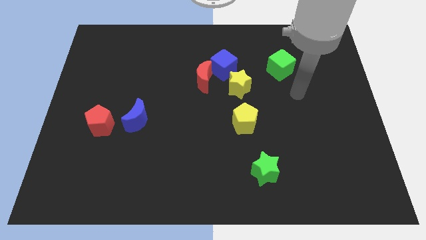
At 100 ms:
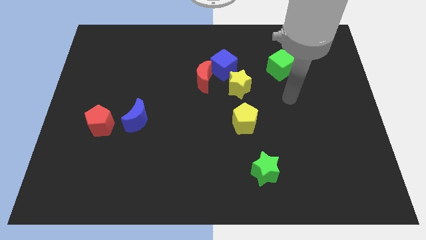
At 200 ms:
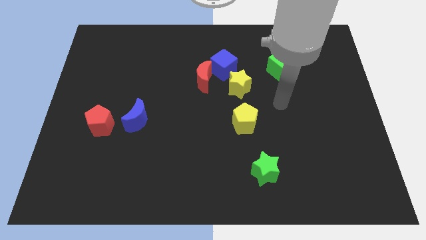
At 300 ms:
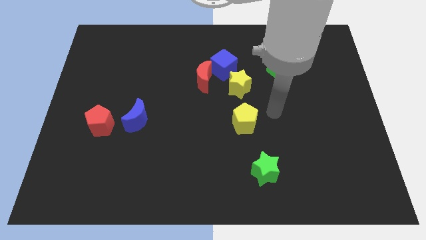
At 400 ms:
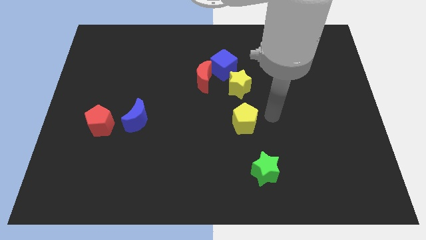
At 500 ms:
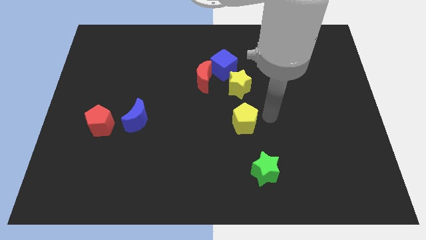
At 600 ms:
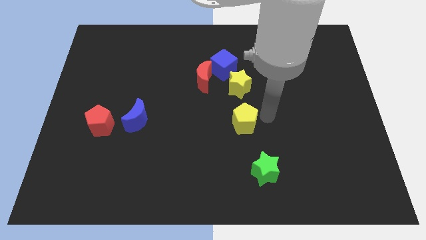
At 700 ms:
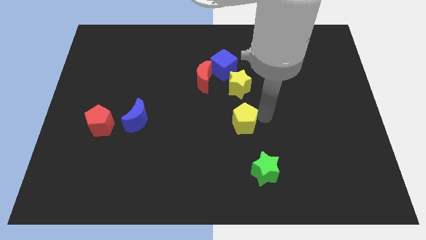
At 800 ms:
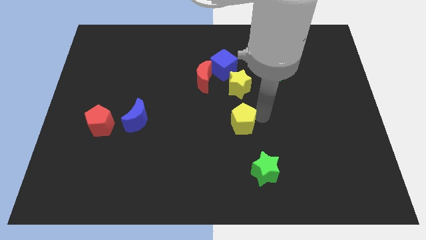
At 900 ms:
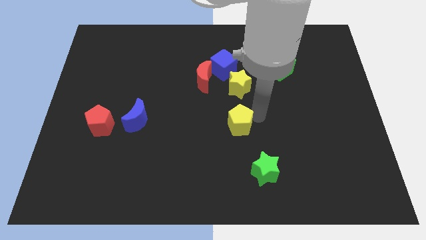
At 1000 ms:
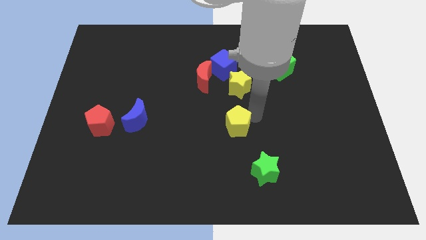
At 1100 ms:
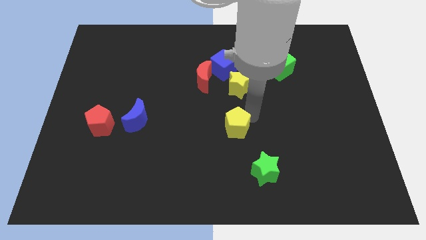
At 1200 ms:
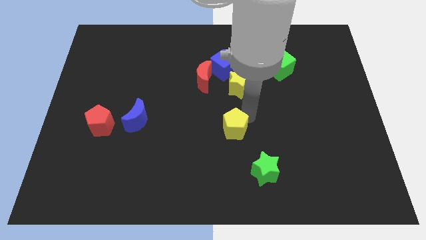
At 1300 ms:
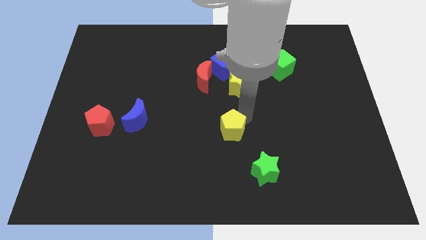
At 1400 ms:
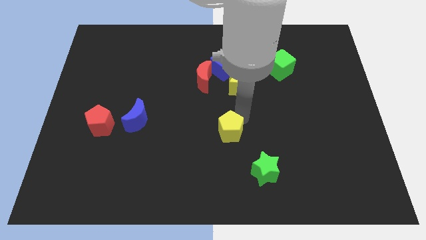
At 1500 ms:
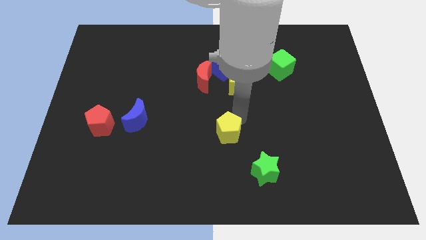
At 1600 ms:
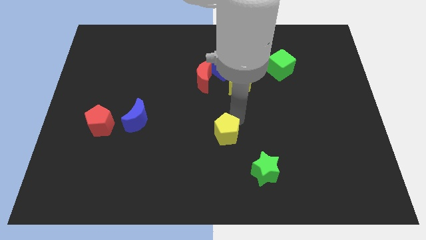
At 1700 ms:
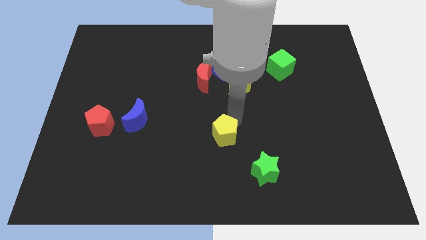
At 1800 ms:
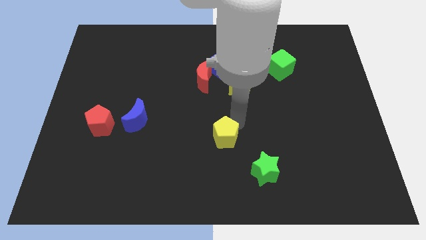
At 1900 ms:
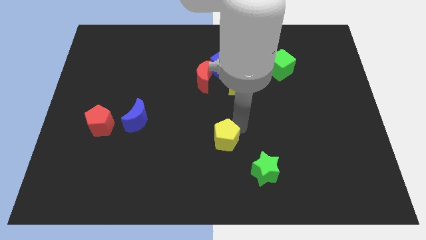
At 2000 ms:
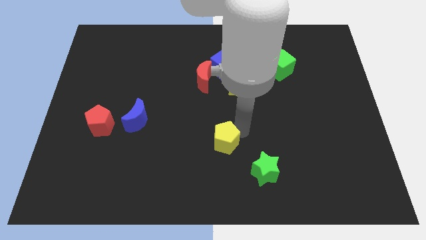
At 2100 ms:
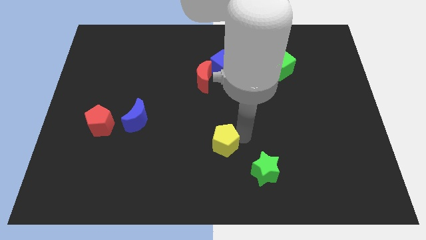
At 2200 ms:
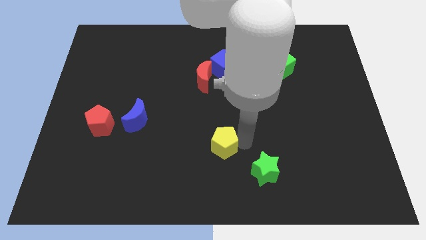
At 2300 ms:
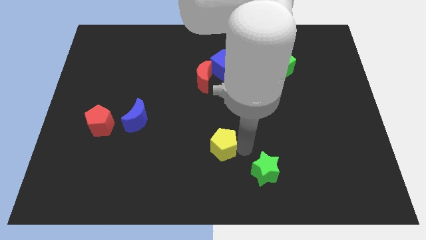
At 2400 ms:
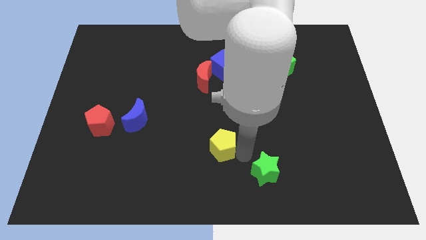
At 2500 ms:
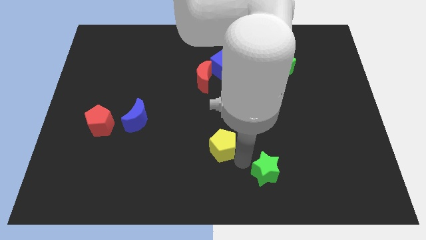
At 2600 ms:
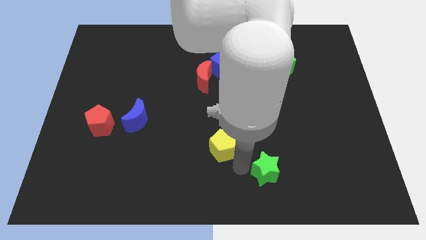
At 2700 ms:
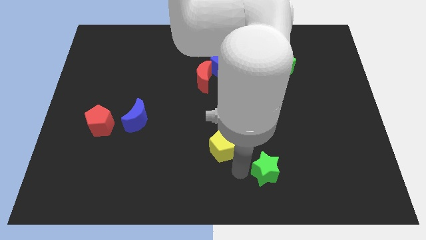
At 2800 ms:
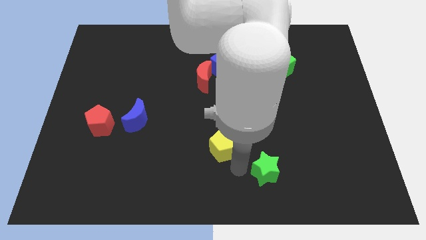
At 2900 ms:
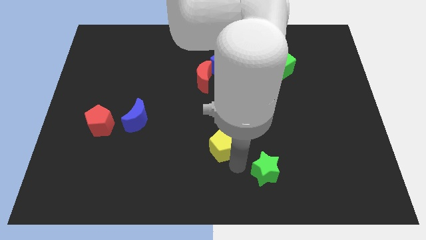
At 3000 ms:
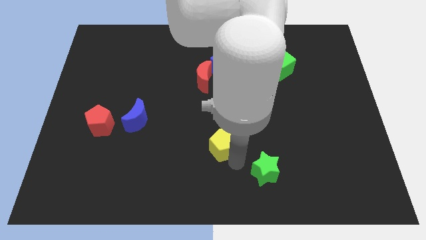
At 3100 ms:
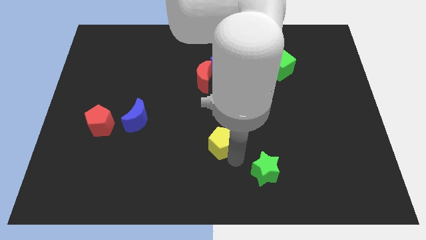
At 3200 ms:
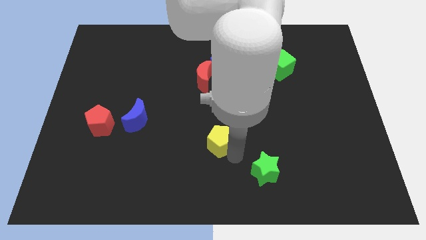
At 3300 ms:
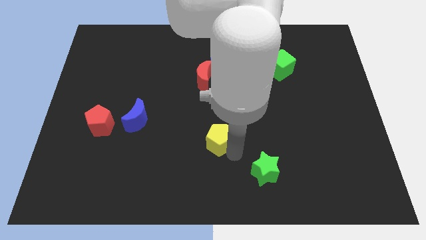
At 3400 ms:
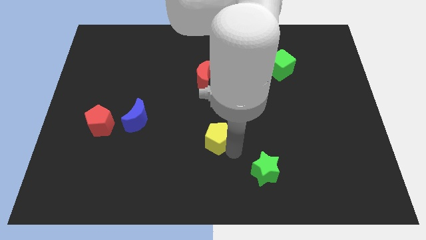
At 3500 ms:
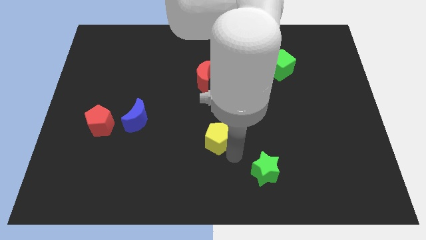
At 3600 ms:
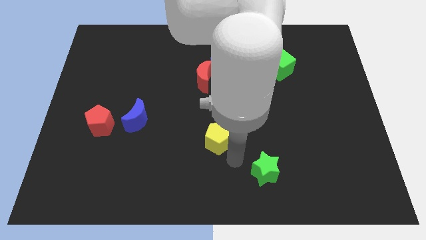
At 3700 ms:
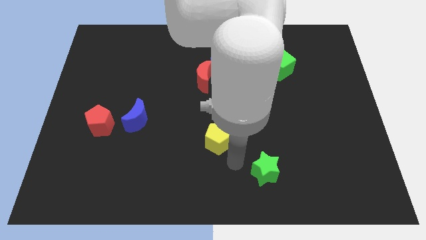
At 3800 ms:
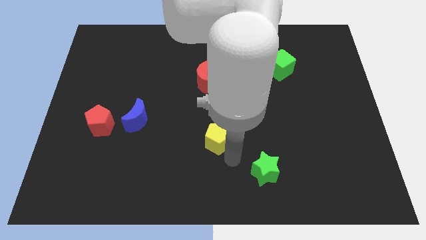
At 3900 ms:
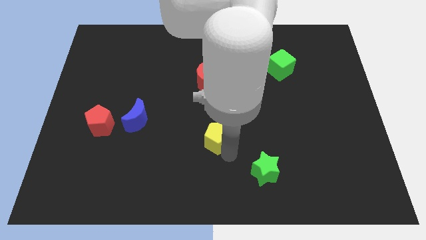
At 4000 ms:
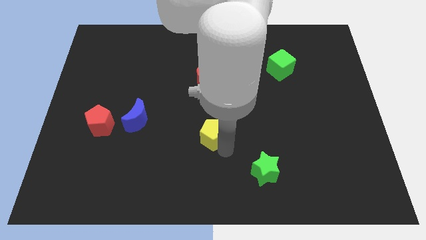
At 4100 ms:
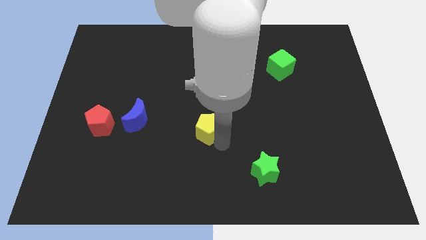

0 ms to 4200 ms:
push the yellow pentagon to the left a little bit

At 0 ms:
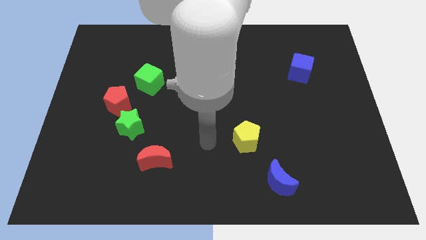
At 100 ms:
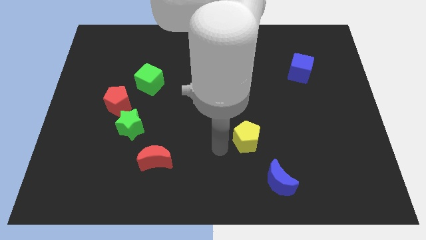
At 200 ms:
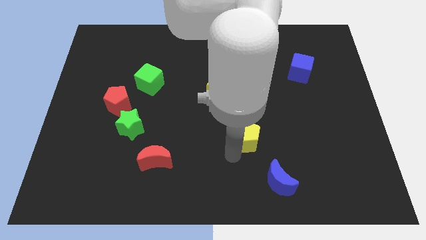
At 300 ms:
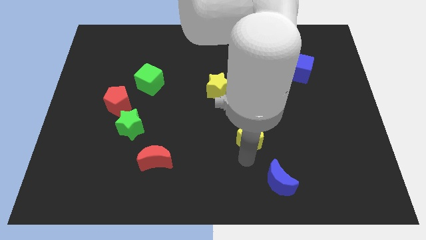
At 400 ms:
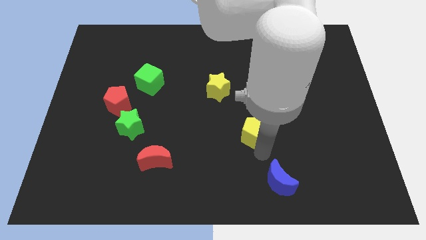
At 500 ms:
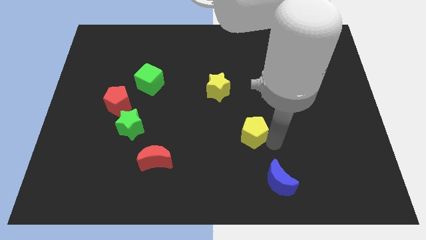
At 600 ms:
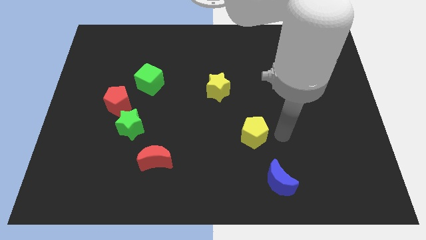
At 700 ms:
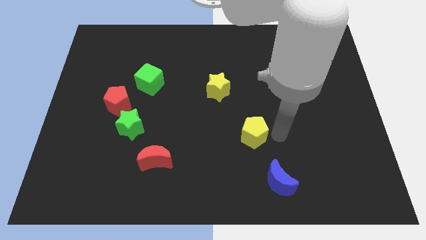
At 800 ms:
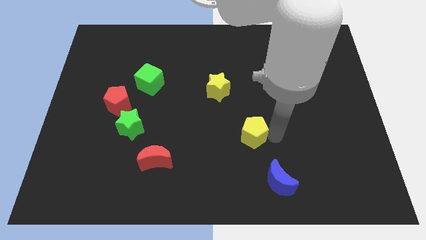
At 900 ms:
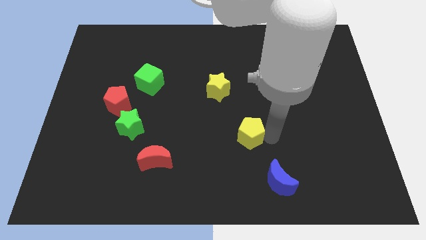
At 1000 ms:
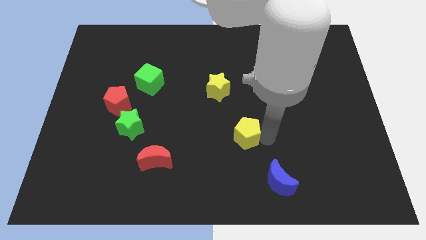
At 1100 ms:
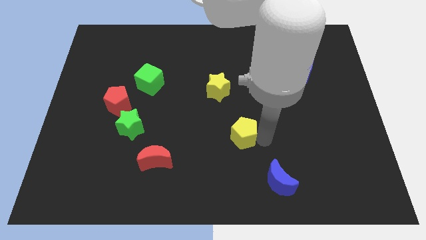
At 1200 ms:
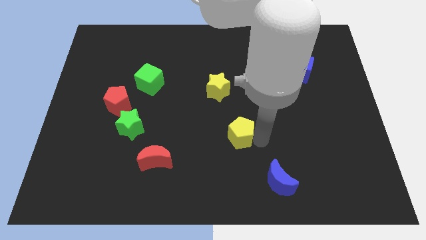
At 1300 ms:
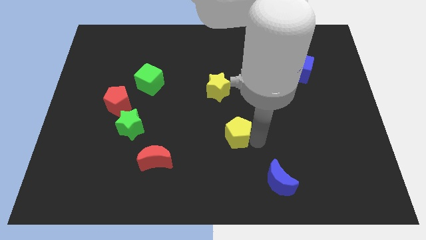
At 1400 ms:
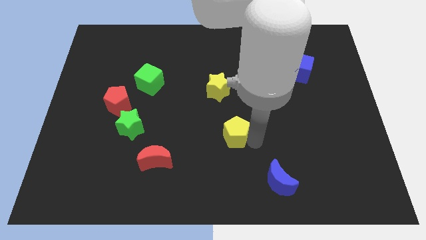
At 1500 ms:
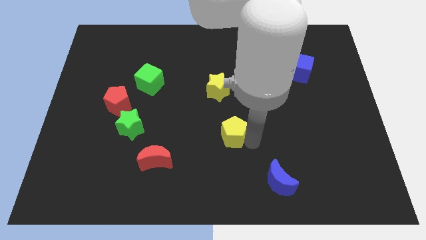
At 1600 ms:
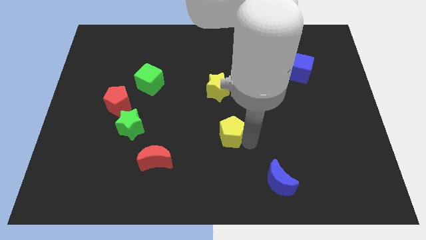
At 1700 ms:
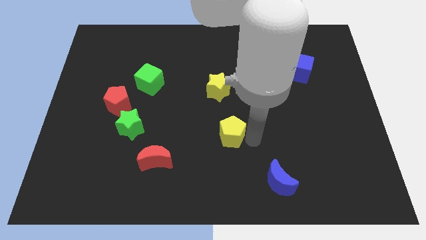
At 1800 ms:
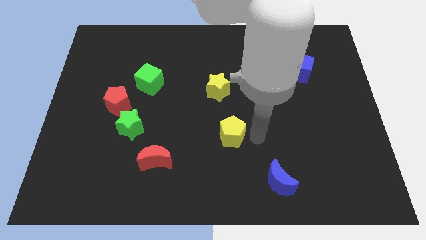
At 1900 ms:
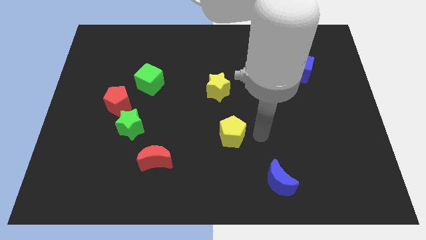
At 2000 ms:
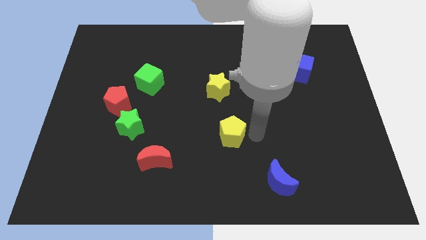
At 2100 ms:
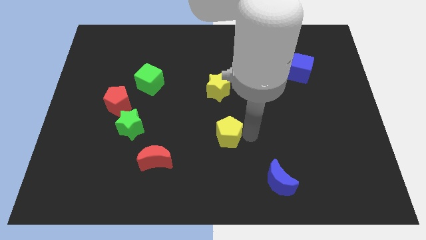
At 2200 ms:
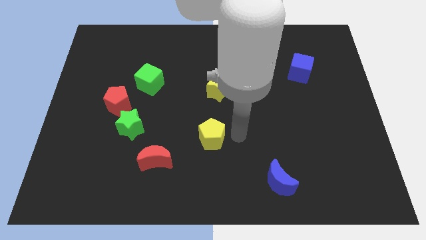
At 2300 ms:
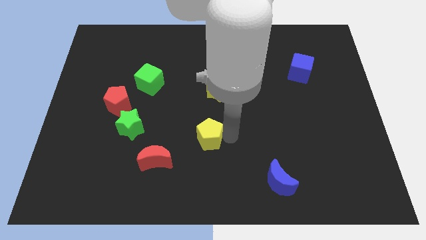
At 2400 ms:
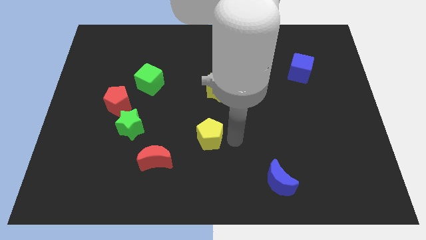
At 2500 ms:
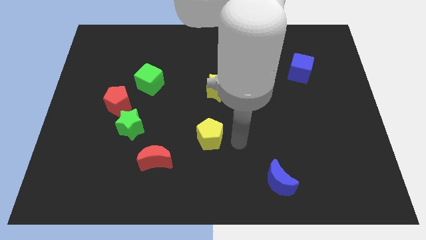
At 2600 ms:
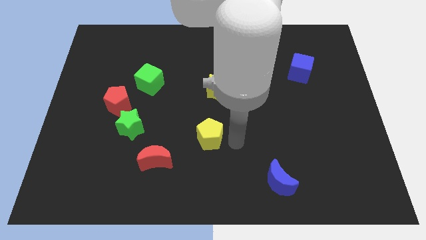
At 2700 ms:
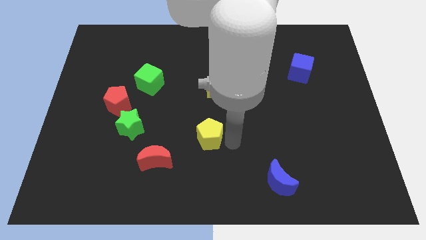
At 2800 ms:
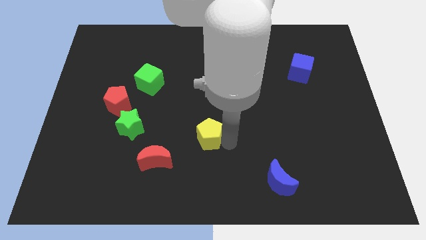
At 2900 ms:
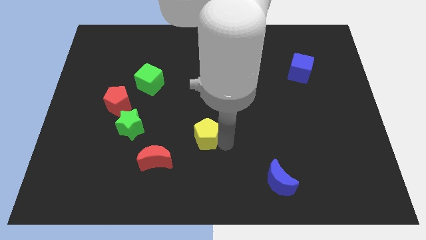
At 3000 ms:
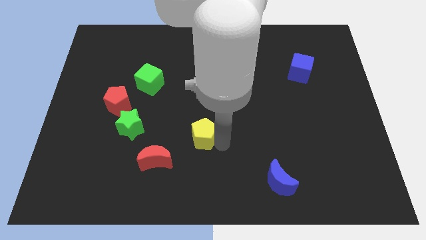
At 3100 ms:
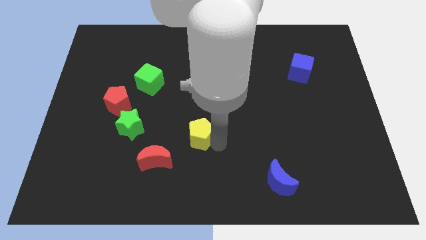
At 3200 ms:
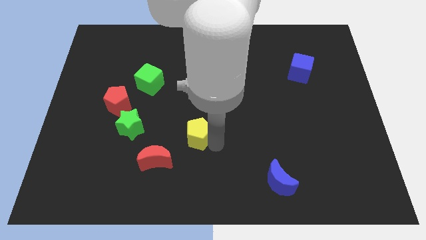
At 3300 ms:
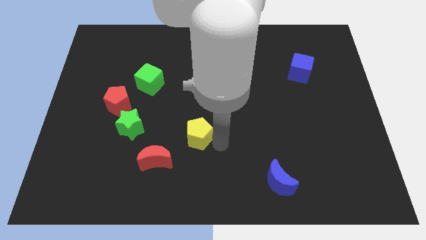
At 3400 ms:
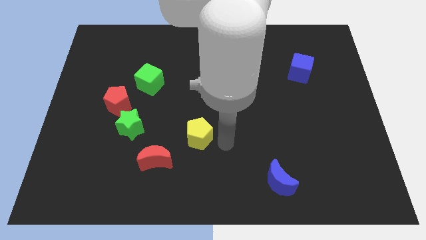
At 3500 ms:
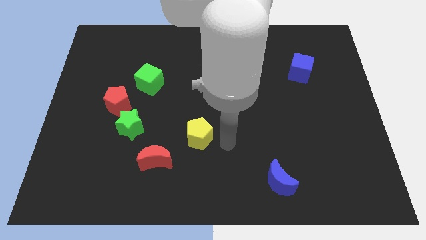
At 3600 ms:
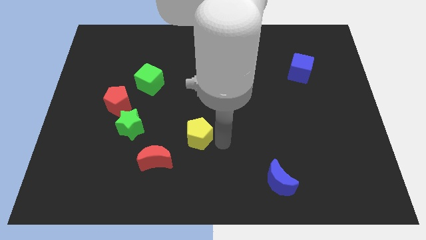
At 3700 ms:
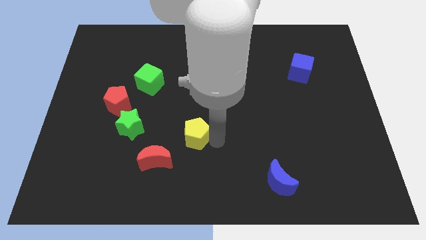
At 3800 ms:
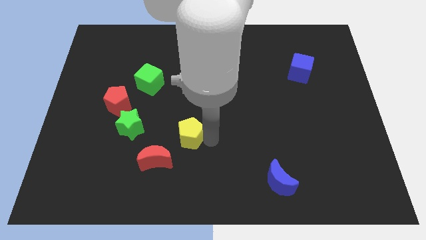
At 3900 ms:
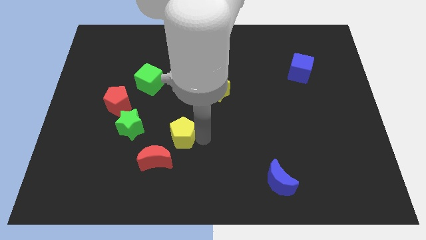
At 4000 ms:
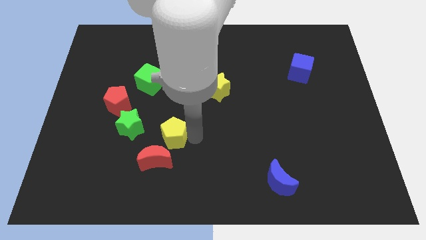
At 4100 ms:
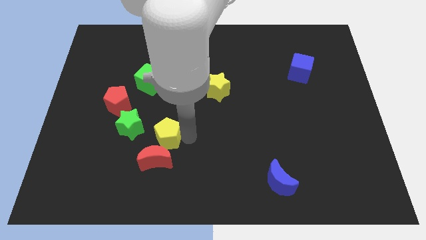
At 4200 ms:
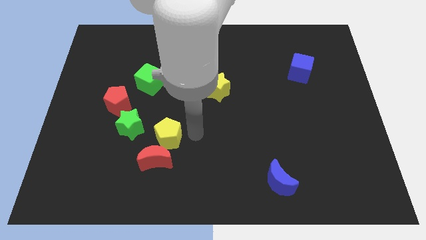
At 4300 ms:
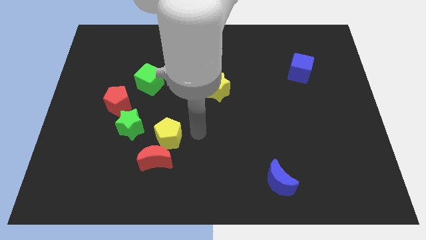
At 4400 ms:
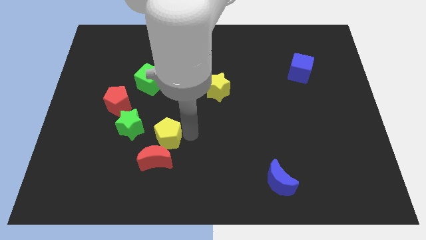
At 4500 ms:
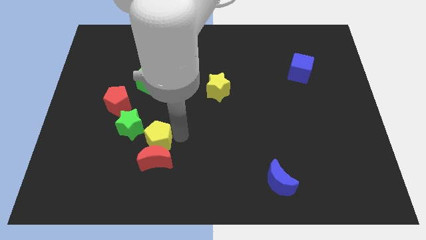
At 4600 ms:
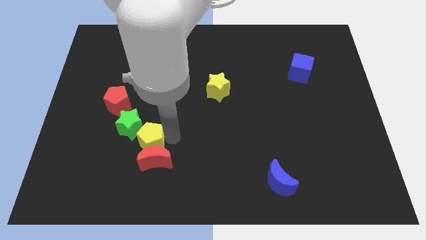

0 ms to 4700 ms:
move the yellow pentagon left
